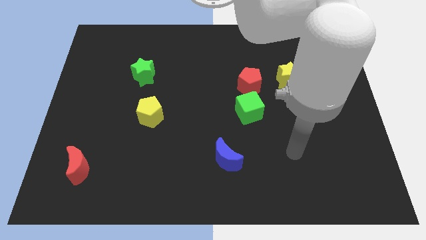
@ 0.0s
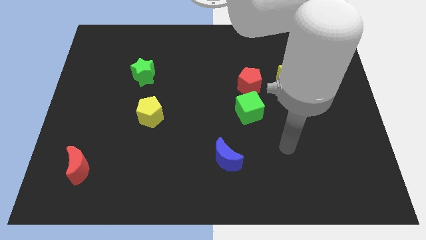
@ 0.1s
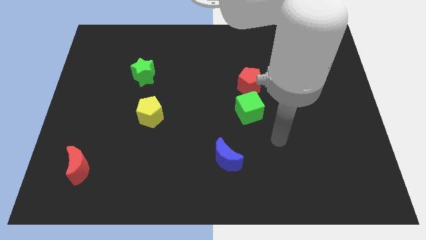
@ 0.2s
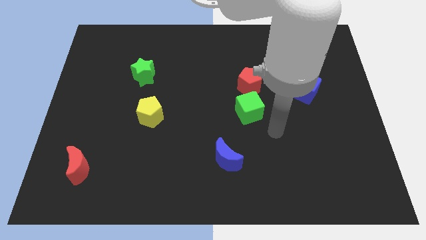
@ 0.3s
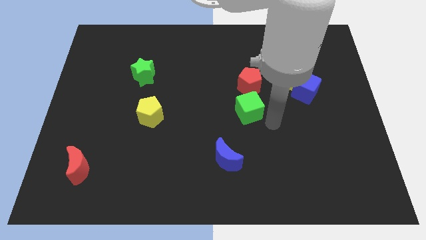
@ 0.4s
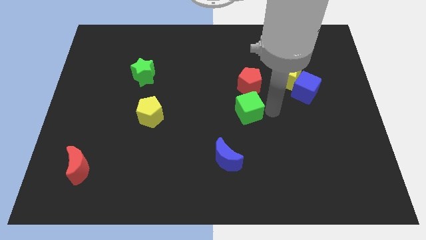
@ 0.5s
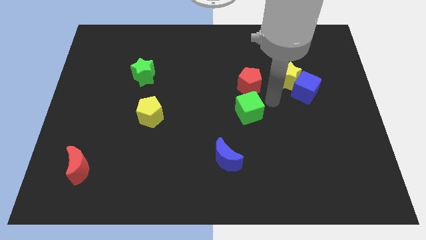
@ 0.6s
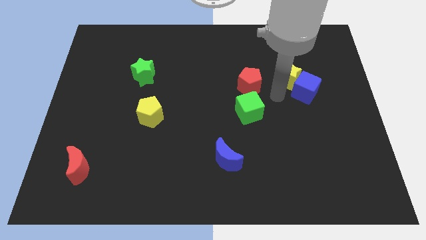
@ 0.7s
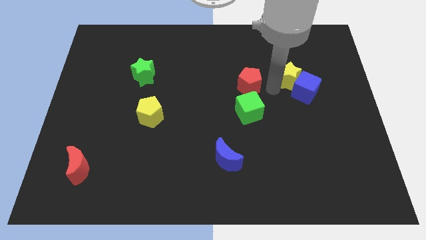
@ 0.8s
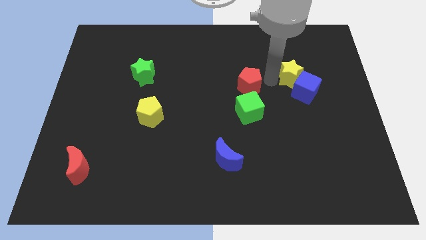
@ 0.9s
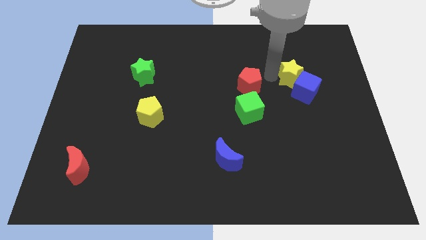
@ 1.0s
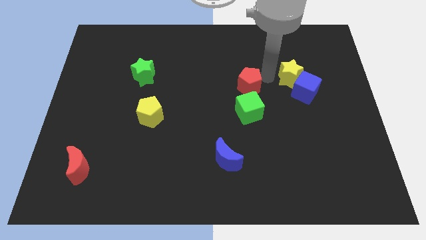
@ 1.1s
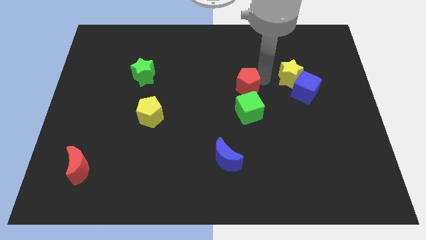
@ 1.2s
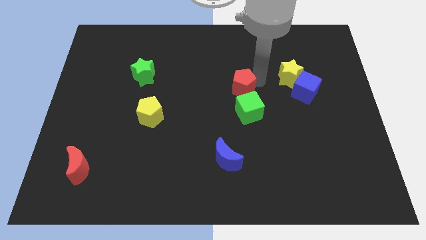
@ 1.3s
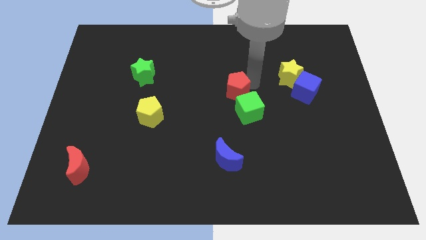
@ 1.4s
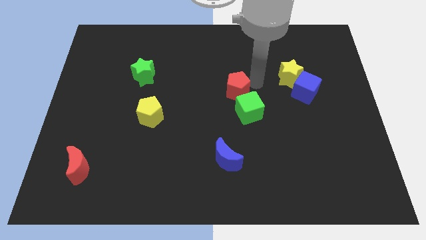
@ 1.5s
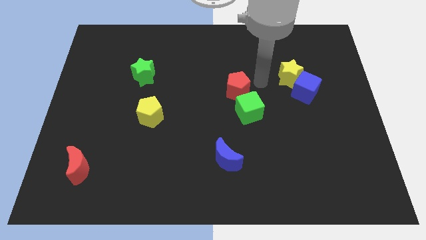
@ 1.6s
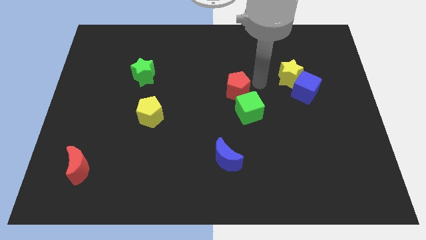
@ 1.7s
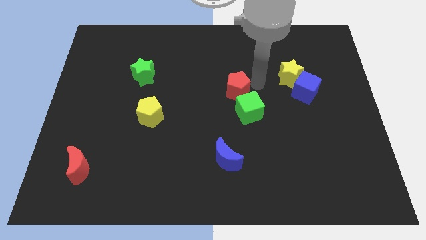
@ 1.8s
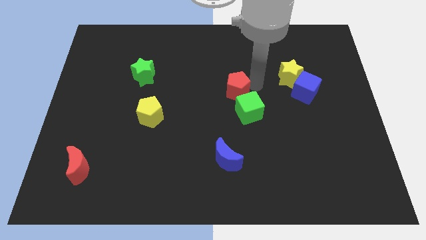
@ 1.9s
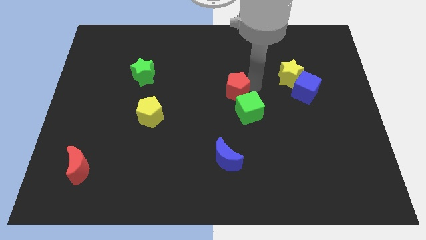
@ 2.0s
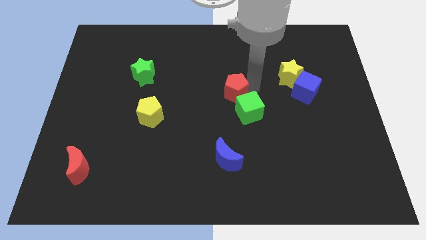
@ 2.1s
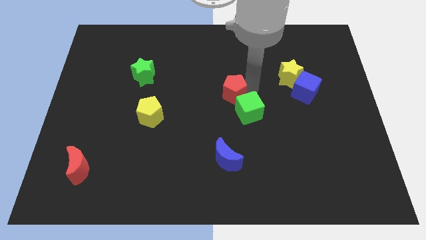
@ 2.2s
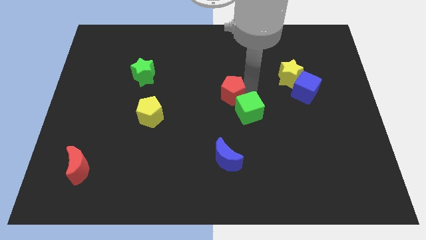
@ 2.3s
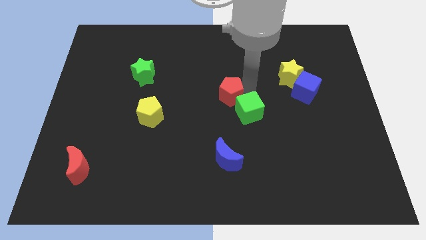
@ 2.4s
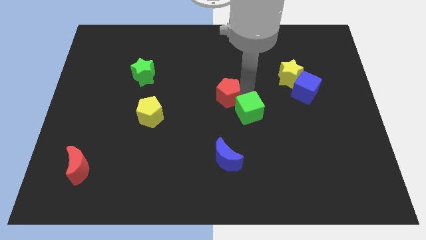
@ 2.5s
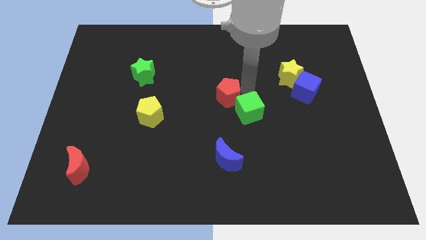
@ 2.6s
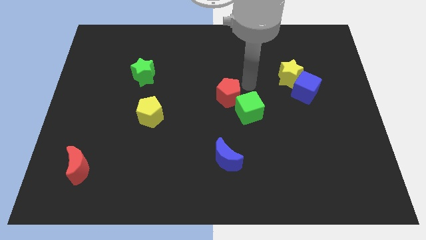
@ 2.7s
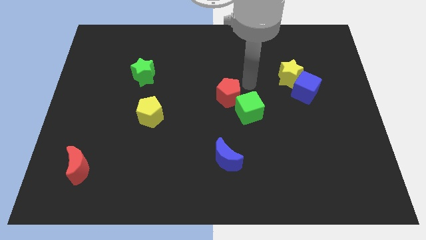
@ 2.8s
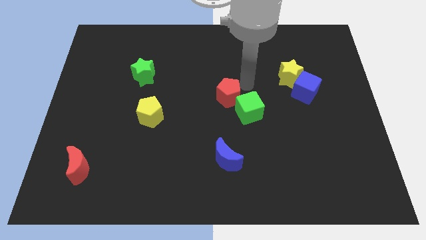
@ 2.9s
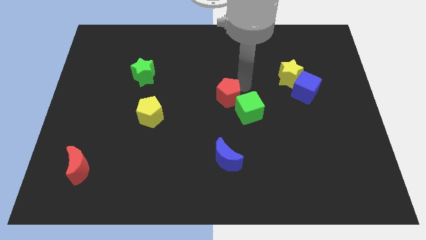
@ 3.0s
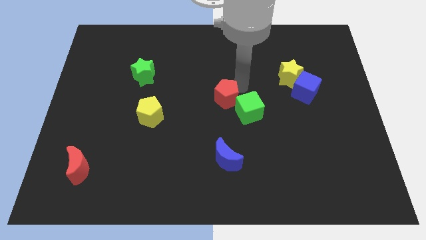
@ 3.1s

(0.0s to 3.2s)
push the red pentagon a bit down and left diagonally

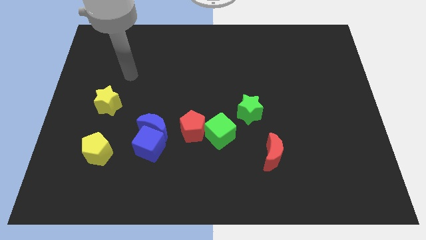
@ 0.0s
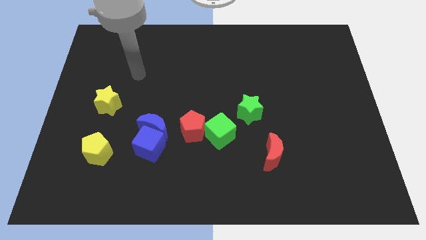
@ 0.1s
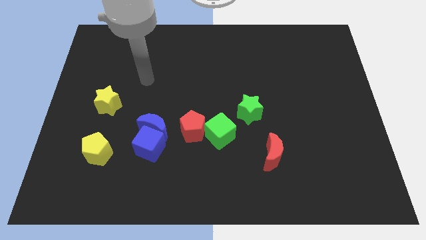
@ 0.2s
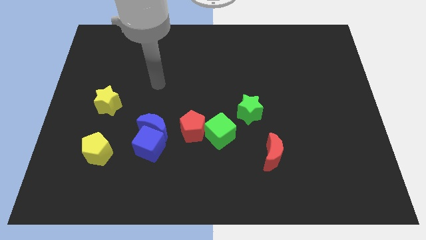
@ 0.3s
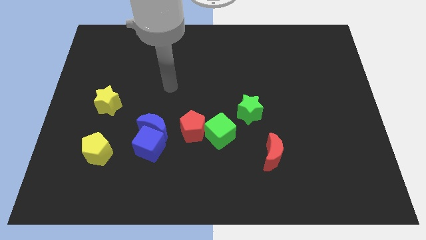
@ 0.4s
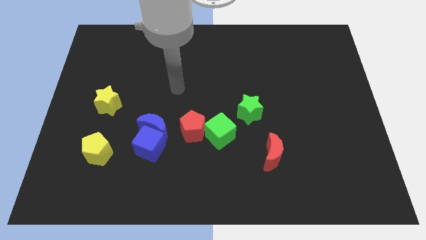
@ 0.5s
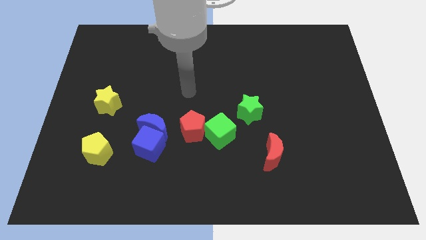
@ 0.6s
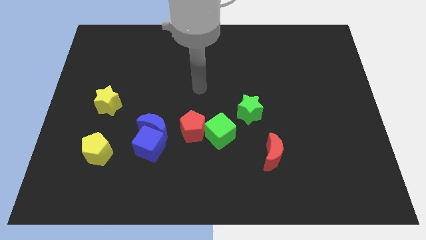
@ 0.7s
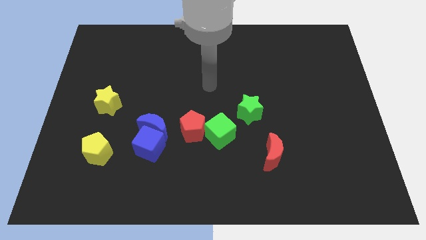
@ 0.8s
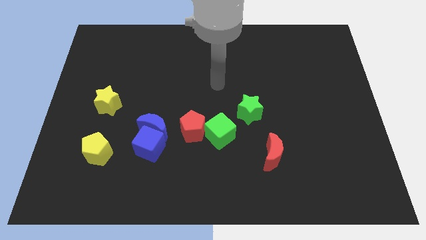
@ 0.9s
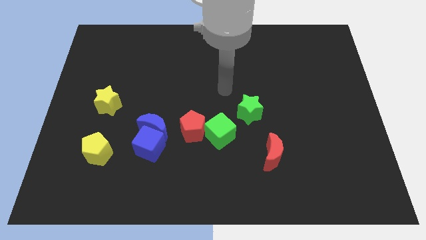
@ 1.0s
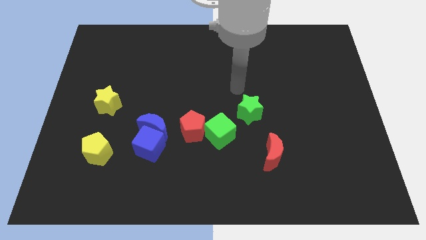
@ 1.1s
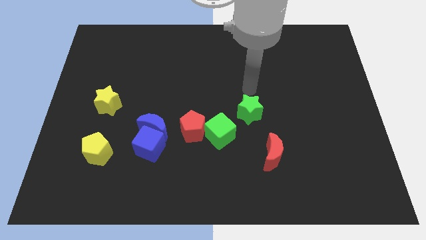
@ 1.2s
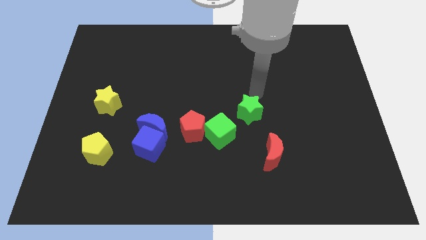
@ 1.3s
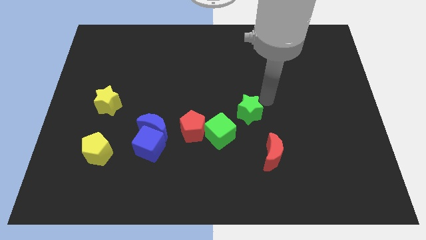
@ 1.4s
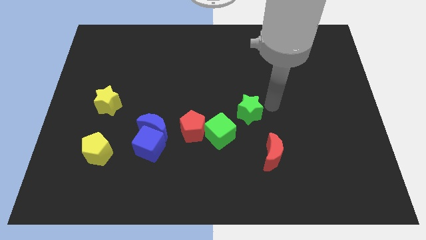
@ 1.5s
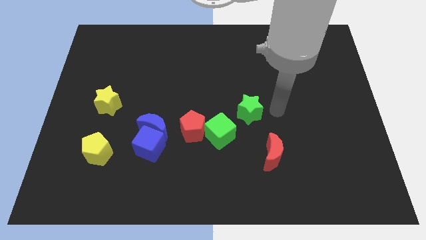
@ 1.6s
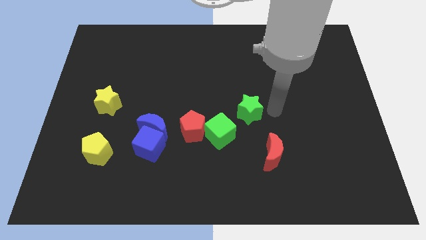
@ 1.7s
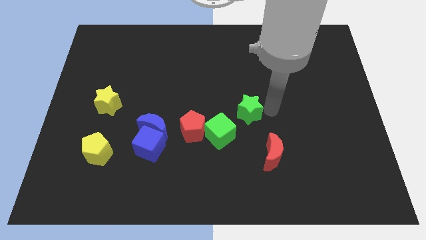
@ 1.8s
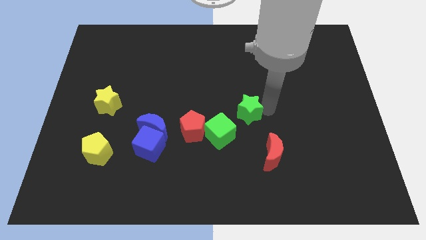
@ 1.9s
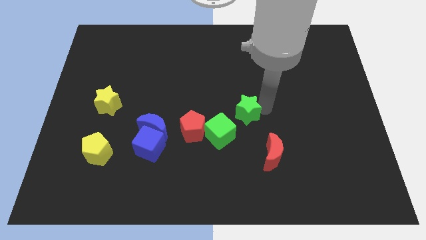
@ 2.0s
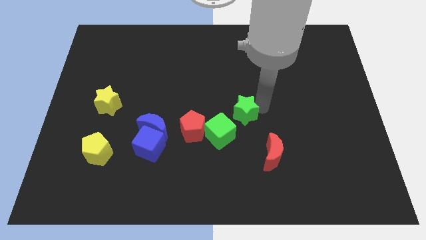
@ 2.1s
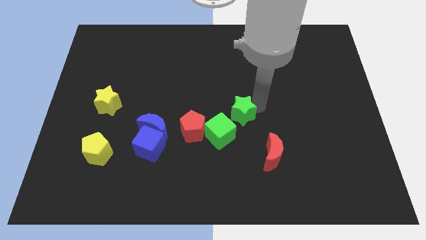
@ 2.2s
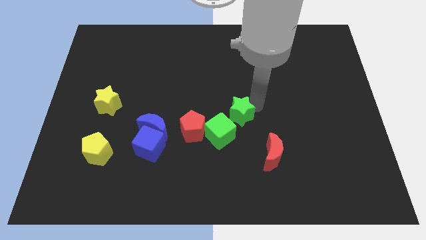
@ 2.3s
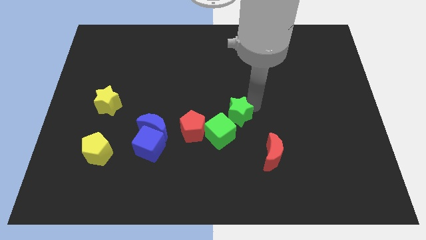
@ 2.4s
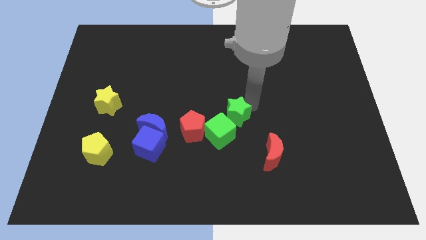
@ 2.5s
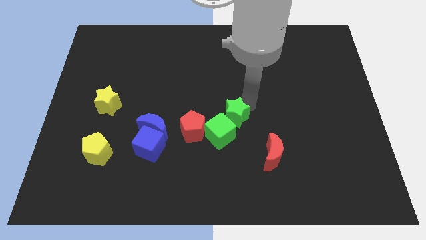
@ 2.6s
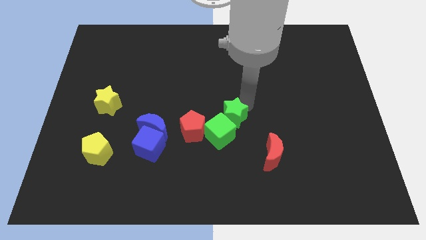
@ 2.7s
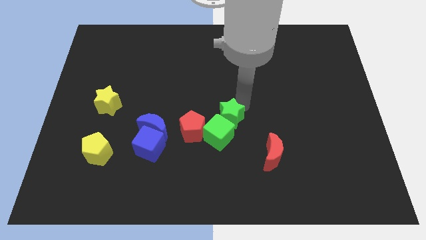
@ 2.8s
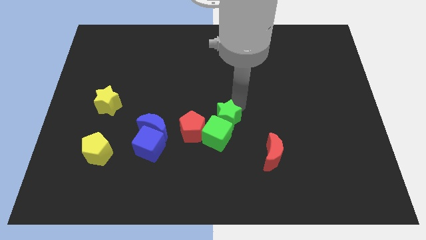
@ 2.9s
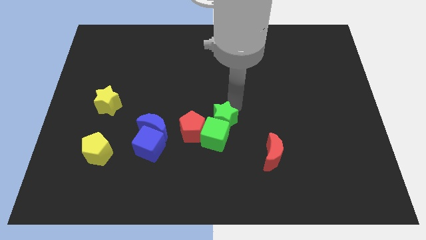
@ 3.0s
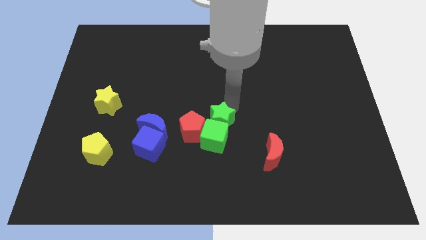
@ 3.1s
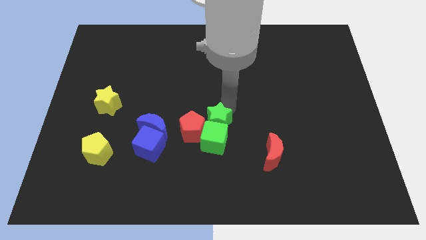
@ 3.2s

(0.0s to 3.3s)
move the green star to the left somewhat

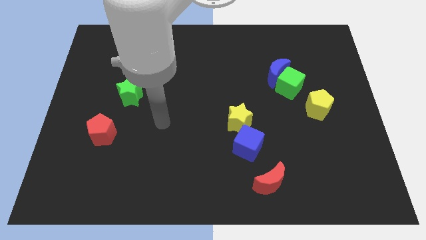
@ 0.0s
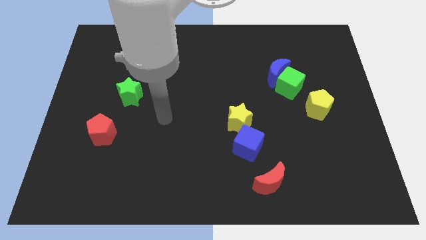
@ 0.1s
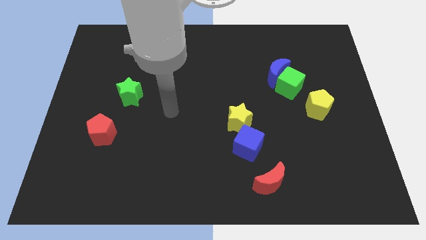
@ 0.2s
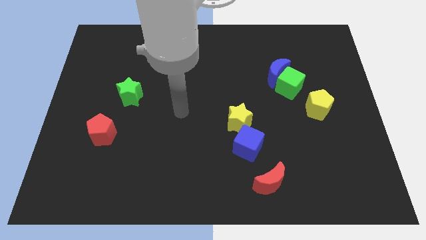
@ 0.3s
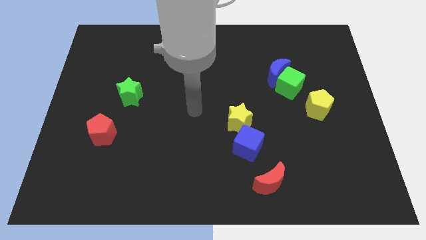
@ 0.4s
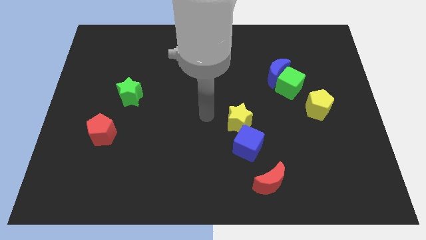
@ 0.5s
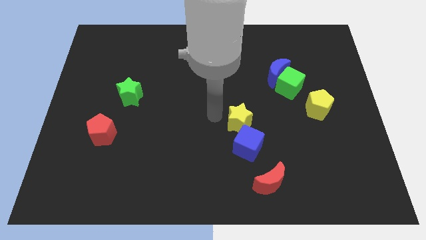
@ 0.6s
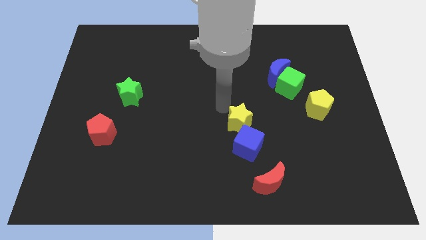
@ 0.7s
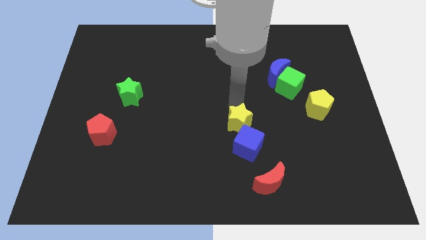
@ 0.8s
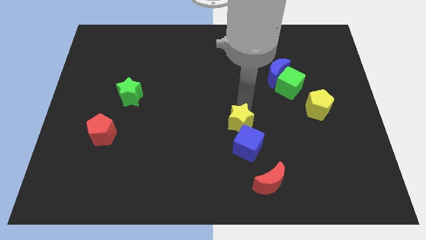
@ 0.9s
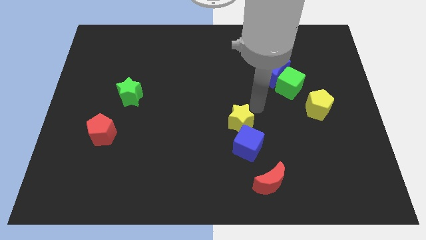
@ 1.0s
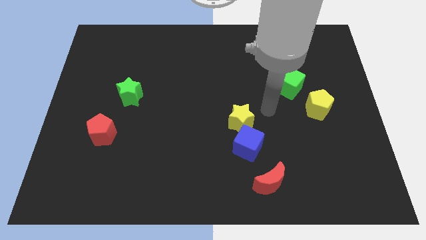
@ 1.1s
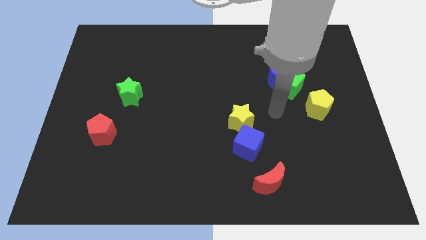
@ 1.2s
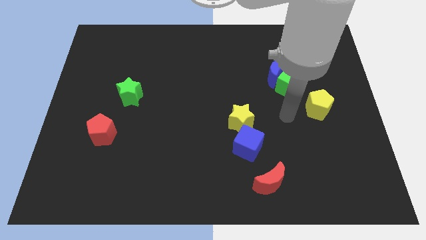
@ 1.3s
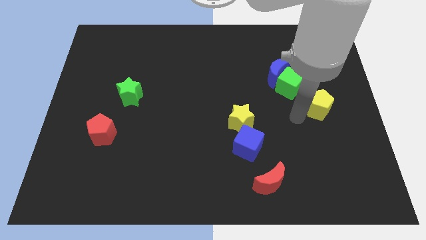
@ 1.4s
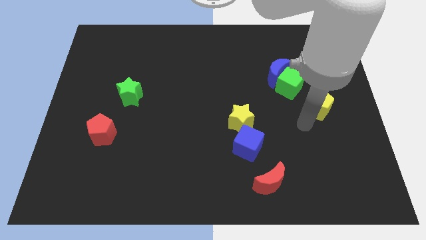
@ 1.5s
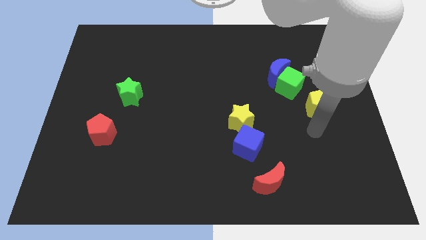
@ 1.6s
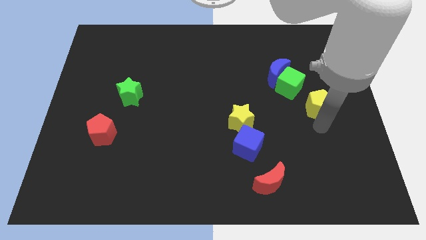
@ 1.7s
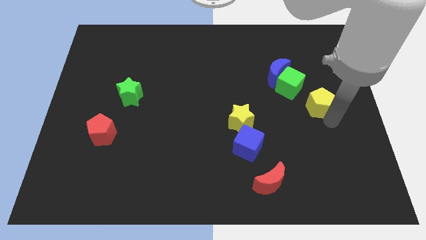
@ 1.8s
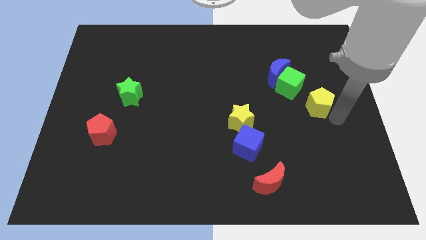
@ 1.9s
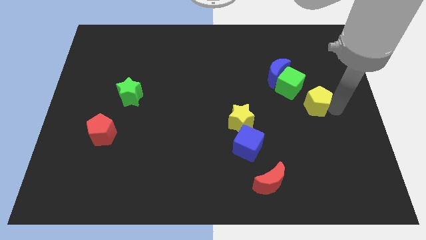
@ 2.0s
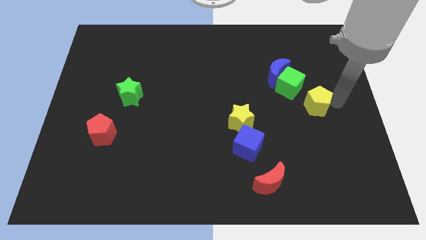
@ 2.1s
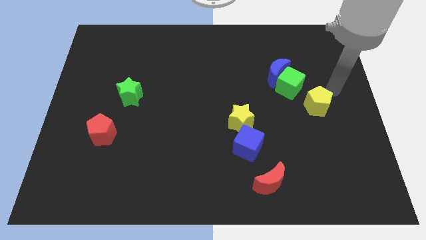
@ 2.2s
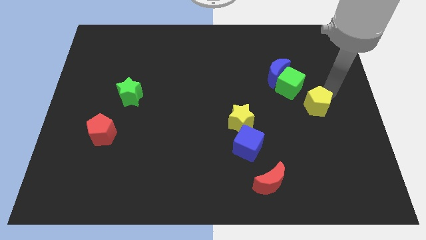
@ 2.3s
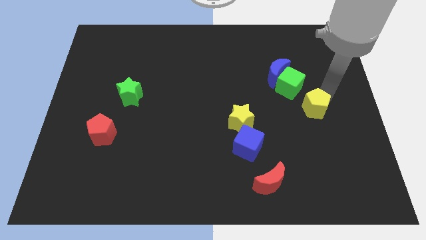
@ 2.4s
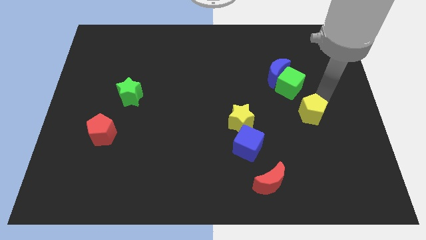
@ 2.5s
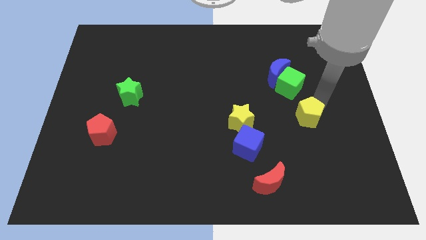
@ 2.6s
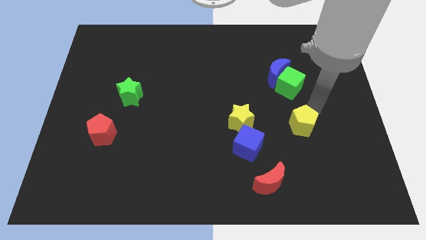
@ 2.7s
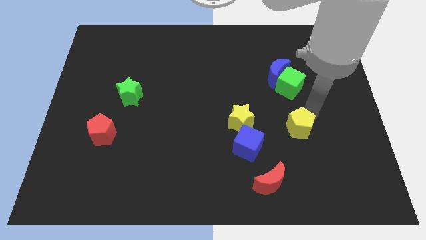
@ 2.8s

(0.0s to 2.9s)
slide the yellow pentagon a bit diagonally down and to the left
